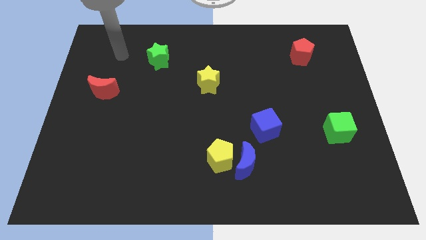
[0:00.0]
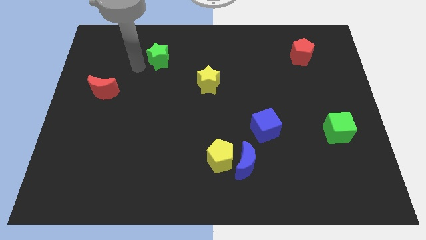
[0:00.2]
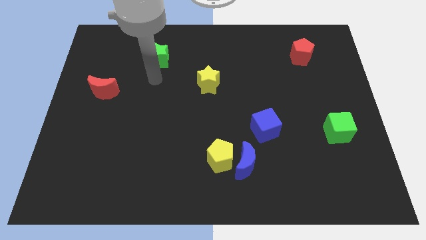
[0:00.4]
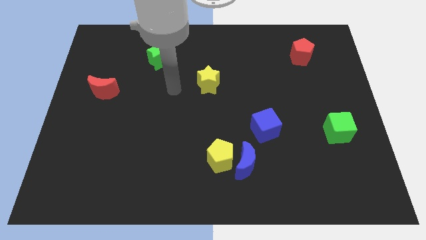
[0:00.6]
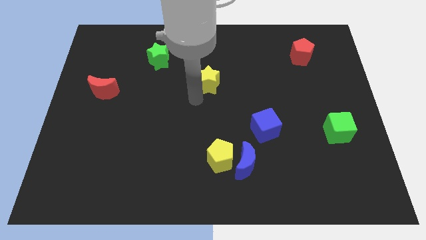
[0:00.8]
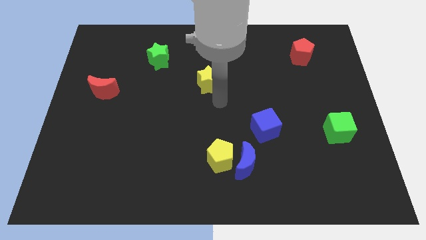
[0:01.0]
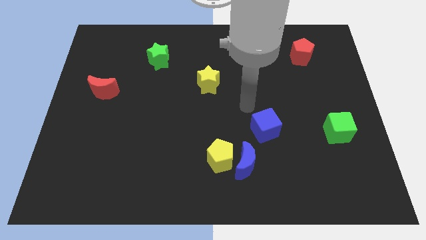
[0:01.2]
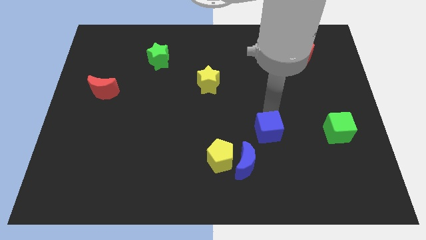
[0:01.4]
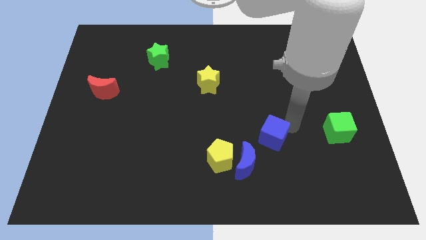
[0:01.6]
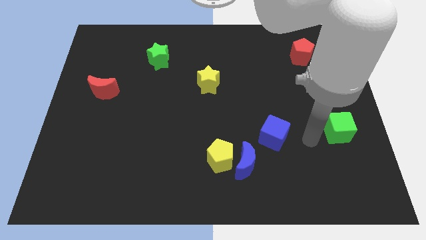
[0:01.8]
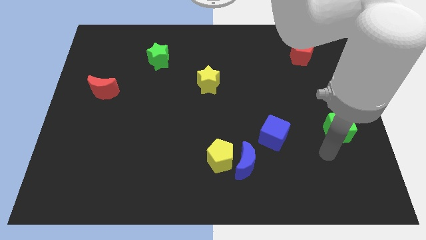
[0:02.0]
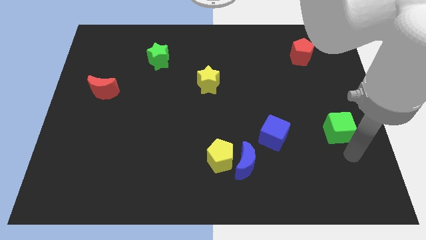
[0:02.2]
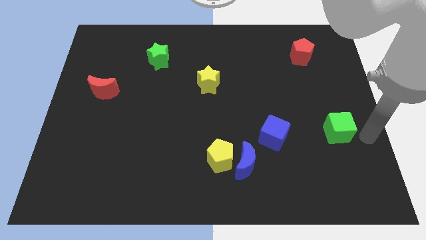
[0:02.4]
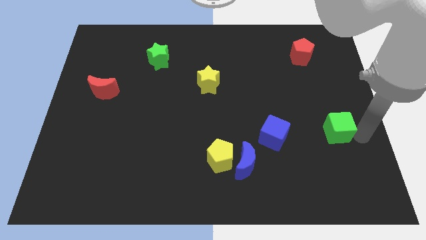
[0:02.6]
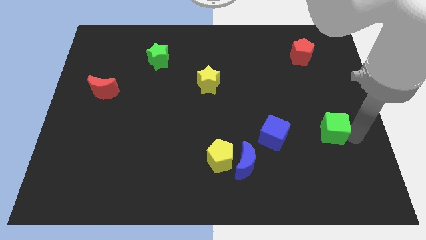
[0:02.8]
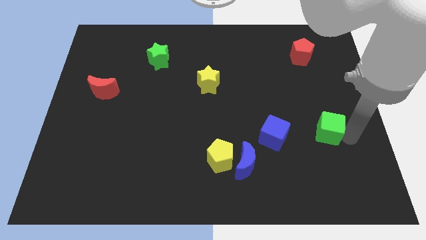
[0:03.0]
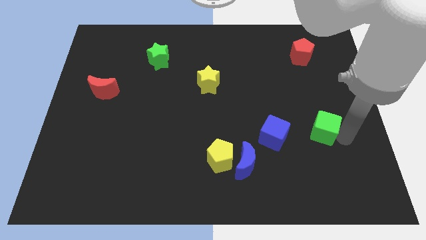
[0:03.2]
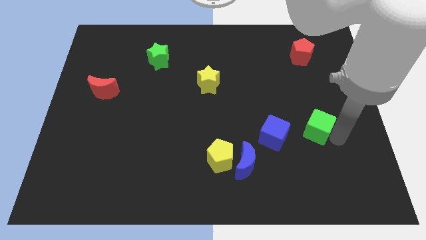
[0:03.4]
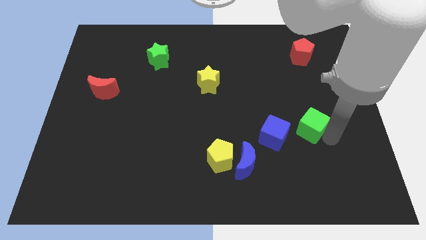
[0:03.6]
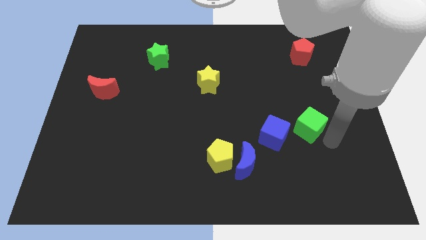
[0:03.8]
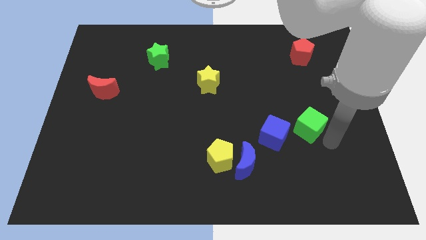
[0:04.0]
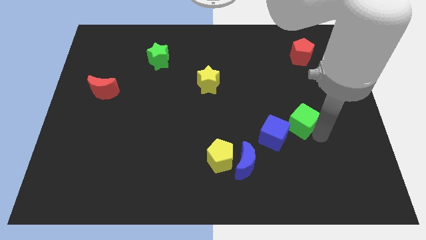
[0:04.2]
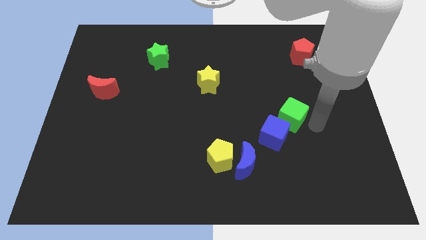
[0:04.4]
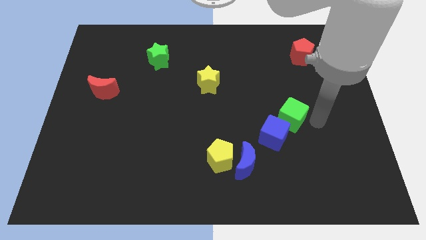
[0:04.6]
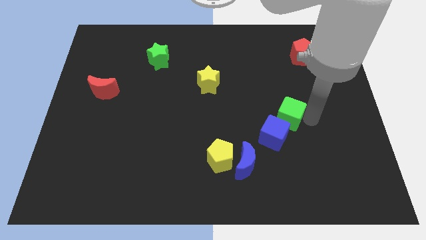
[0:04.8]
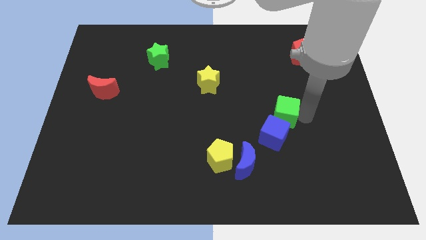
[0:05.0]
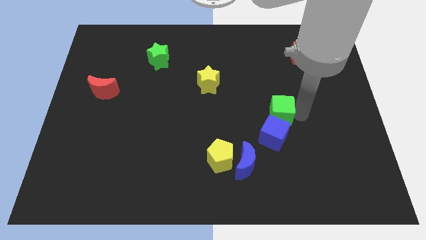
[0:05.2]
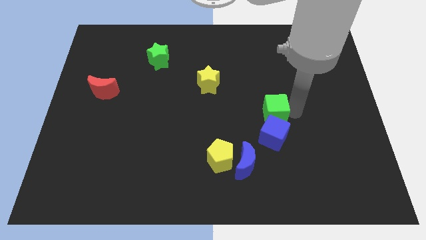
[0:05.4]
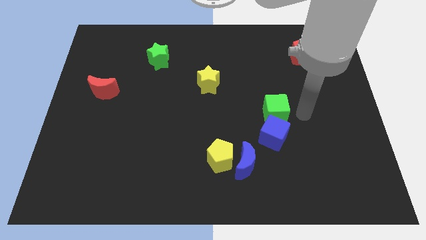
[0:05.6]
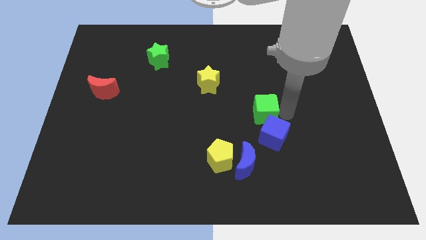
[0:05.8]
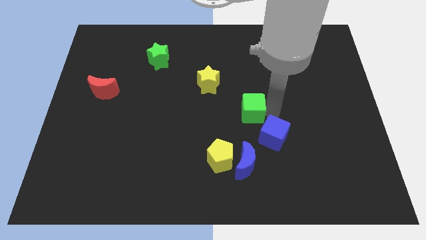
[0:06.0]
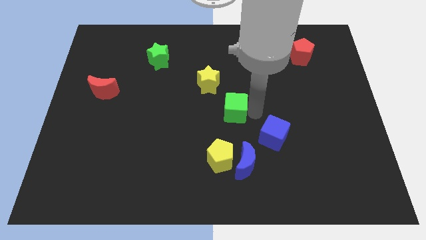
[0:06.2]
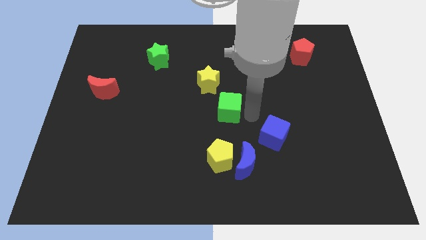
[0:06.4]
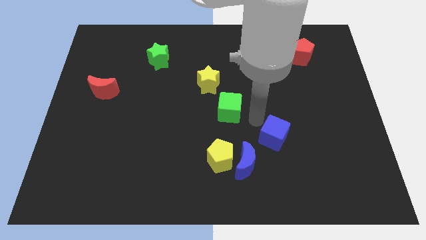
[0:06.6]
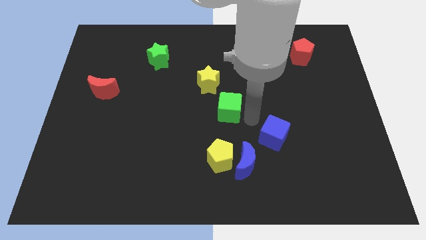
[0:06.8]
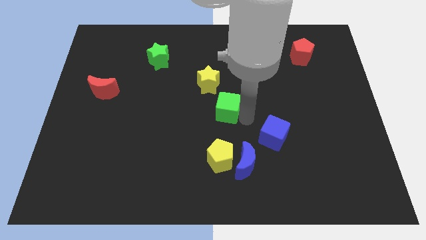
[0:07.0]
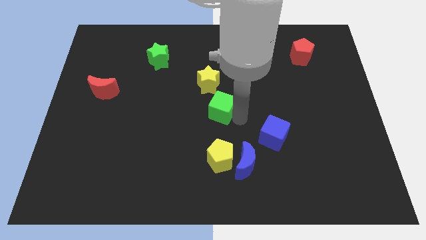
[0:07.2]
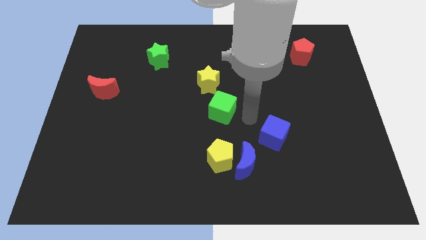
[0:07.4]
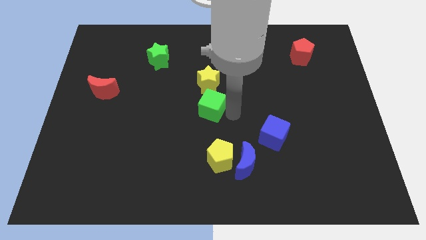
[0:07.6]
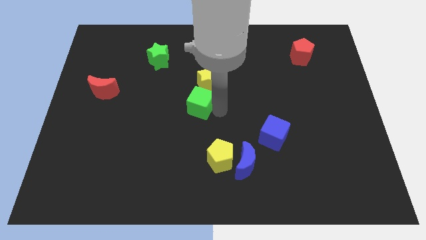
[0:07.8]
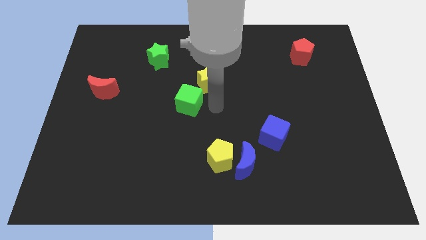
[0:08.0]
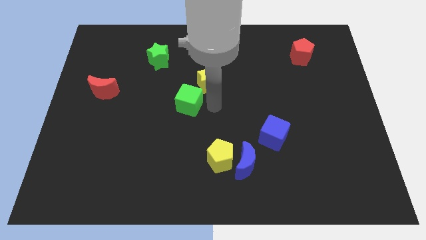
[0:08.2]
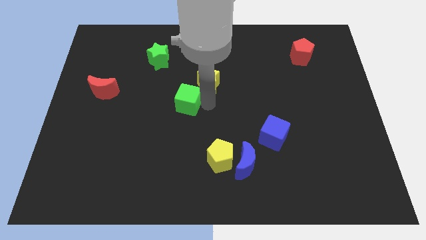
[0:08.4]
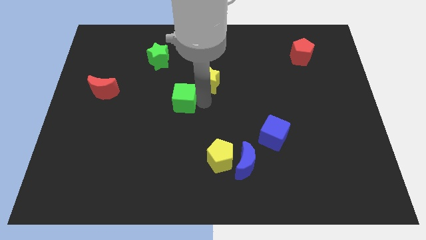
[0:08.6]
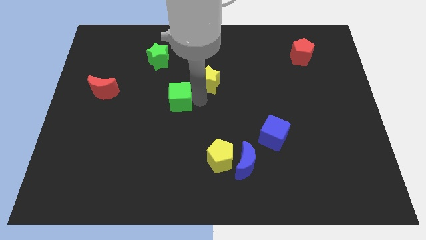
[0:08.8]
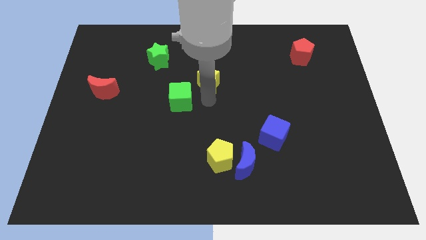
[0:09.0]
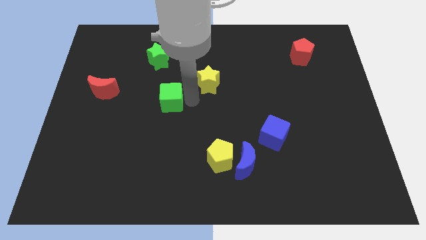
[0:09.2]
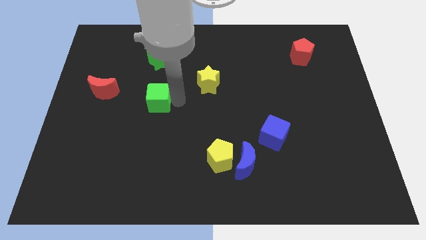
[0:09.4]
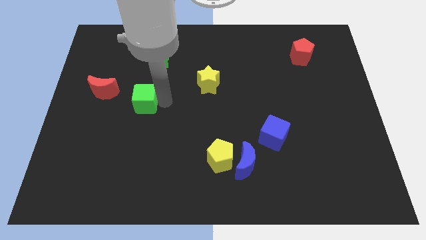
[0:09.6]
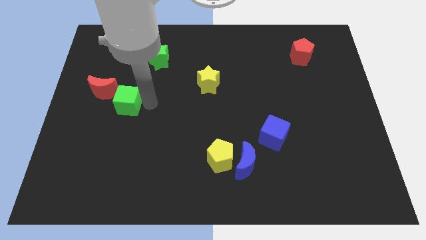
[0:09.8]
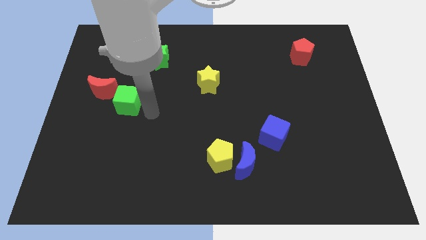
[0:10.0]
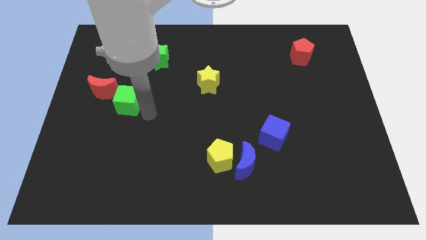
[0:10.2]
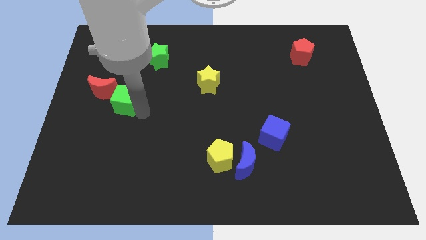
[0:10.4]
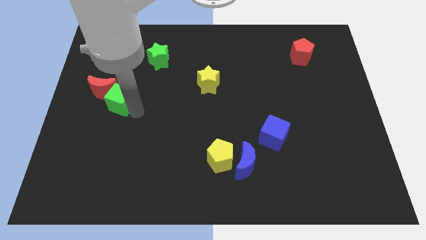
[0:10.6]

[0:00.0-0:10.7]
push the green cube close to the red moon
